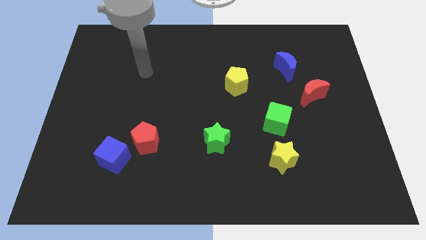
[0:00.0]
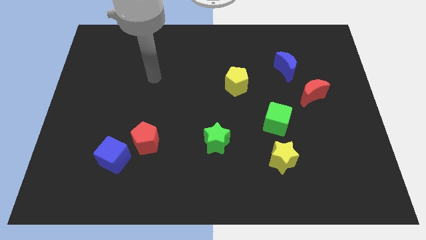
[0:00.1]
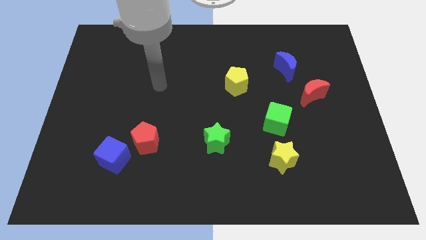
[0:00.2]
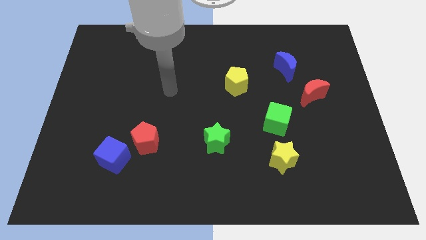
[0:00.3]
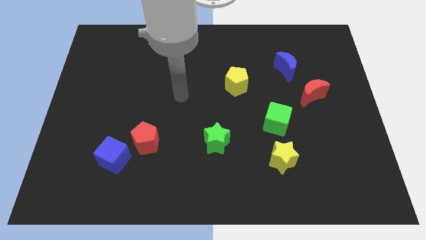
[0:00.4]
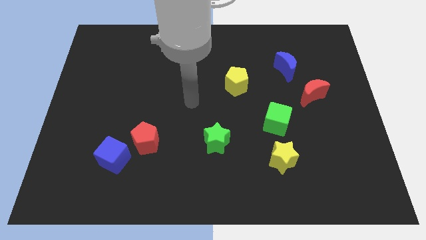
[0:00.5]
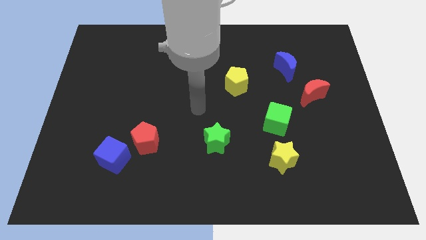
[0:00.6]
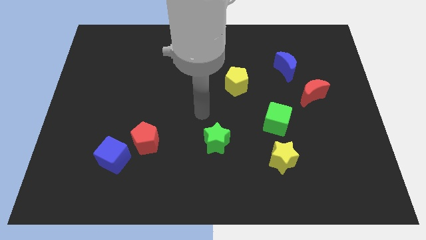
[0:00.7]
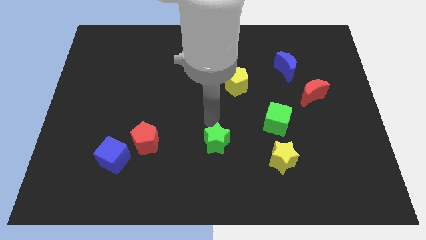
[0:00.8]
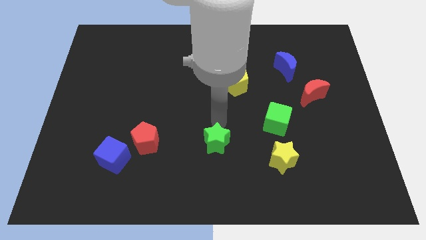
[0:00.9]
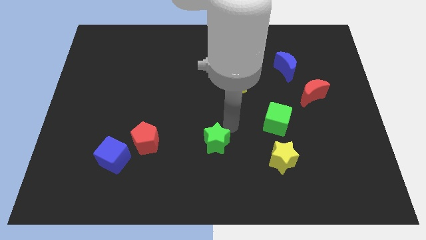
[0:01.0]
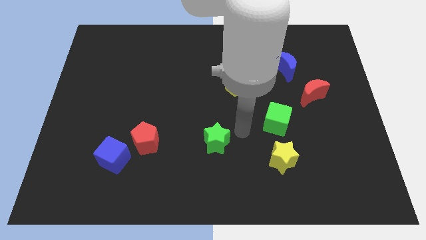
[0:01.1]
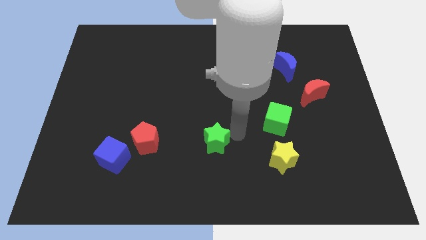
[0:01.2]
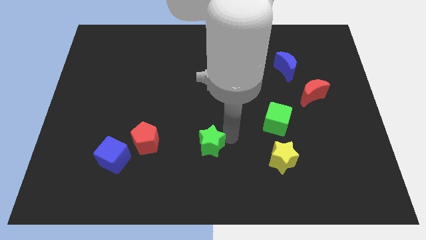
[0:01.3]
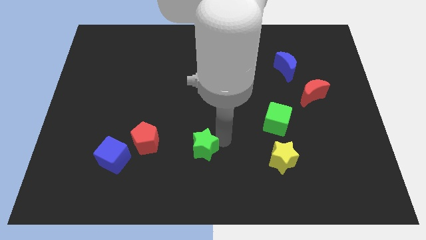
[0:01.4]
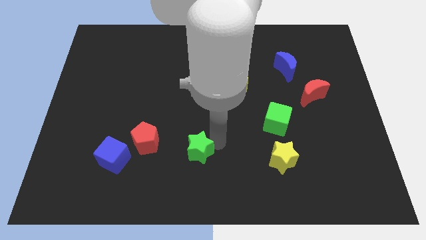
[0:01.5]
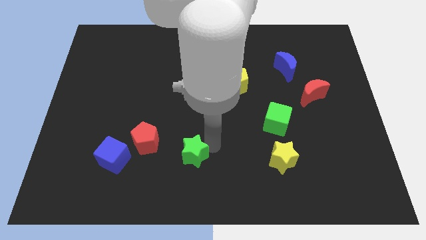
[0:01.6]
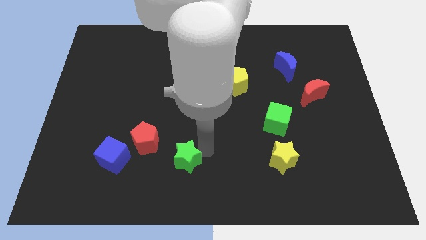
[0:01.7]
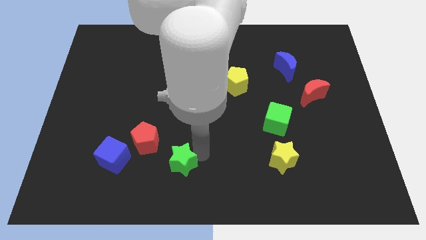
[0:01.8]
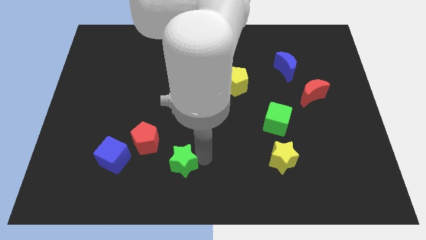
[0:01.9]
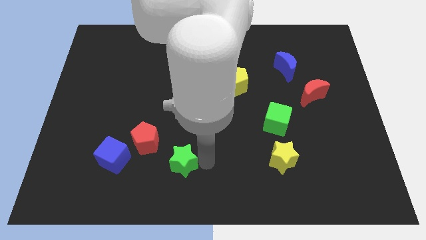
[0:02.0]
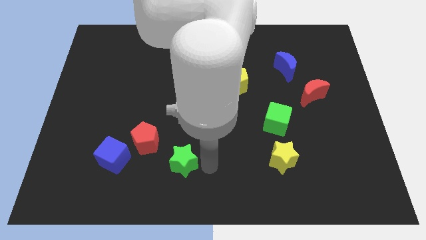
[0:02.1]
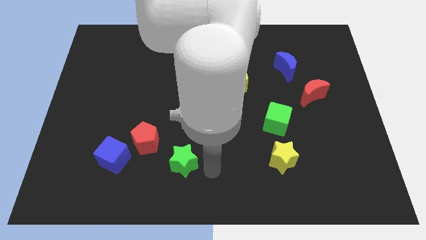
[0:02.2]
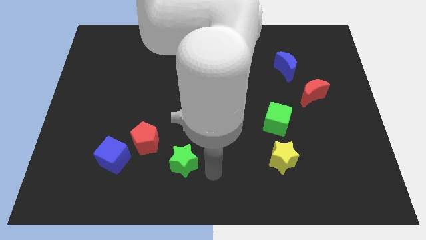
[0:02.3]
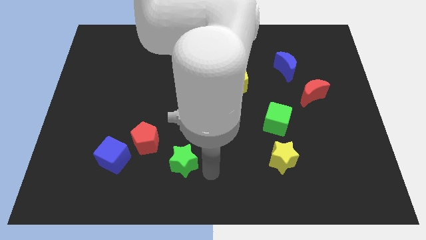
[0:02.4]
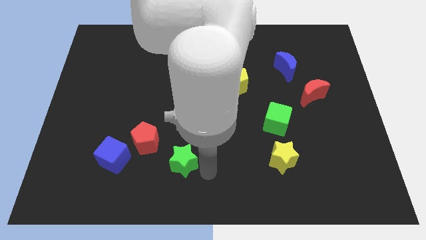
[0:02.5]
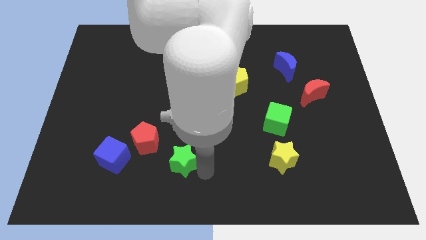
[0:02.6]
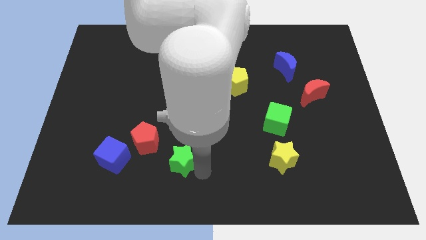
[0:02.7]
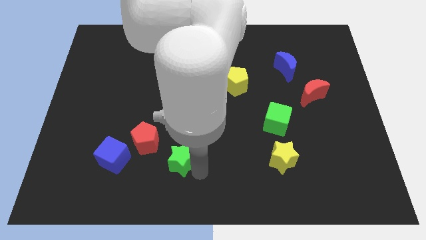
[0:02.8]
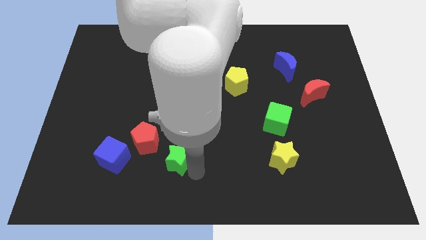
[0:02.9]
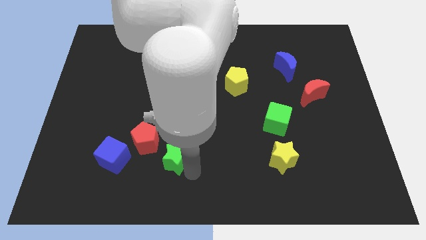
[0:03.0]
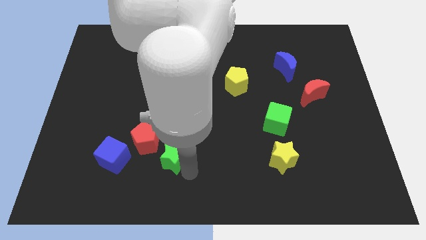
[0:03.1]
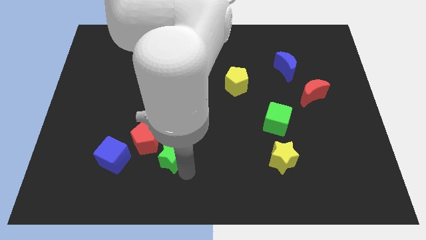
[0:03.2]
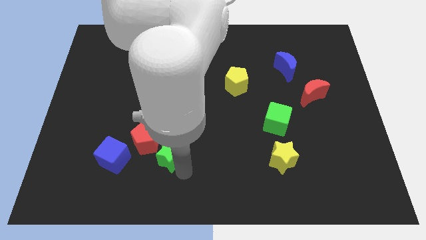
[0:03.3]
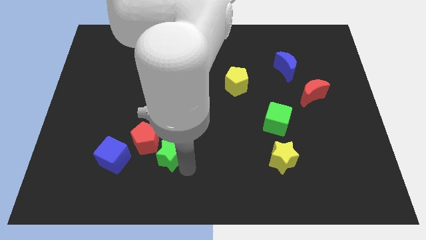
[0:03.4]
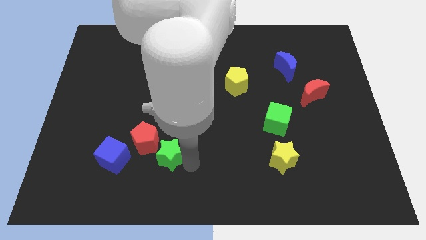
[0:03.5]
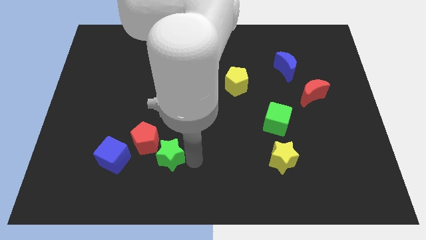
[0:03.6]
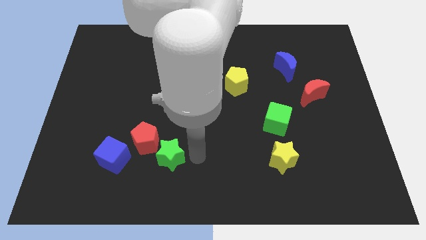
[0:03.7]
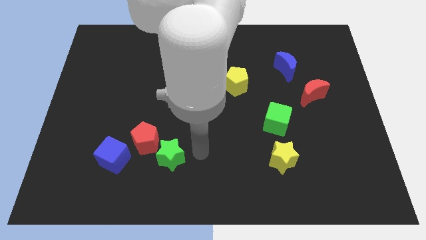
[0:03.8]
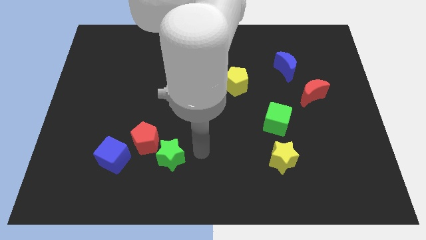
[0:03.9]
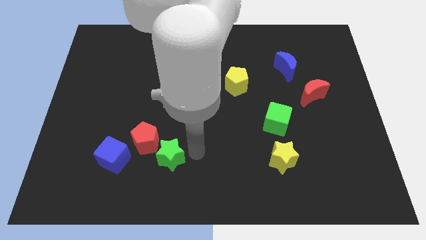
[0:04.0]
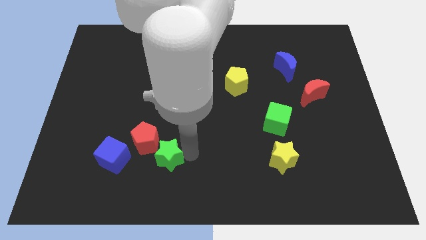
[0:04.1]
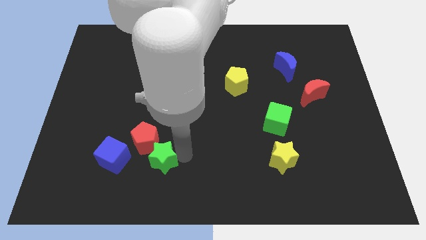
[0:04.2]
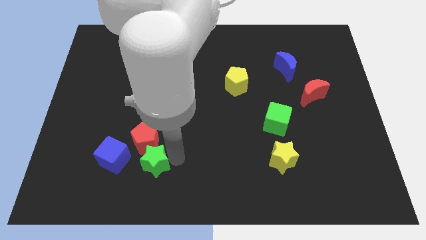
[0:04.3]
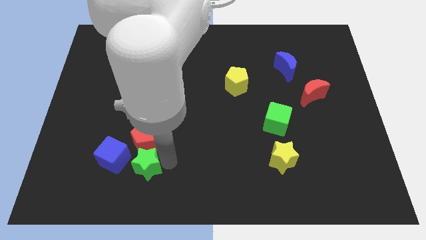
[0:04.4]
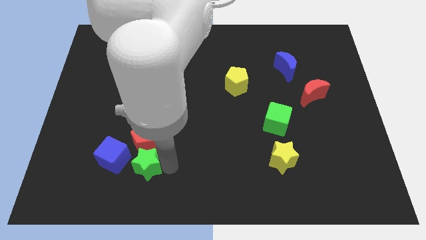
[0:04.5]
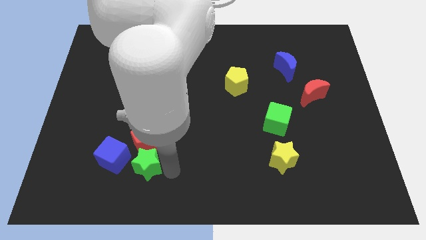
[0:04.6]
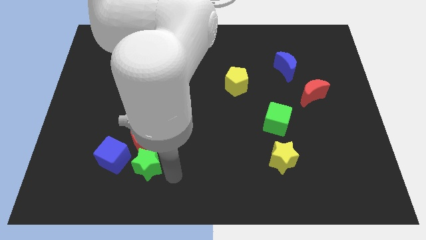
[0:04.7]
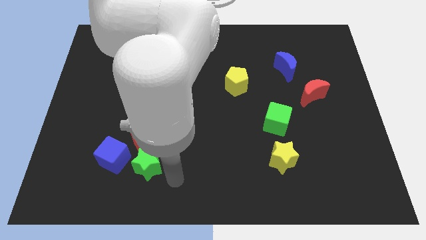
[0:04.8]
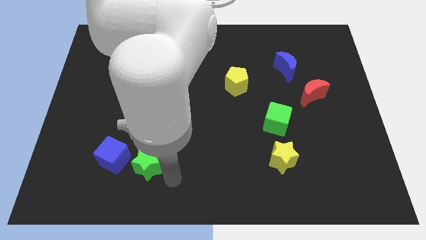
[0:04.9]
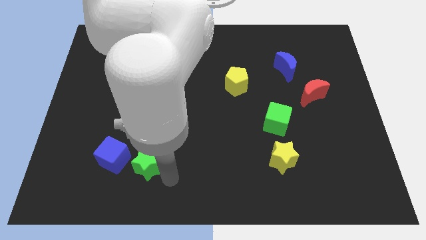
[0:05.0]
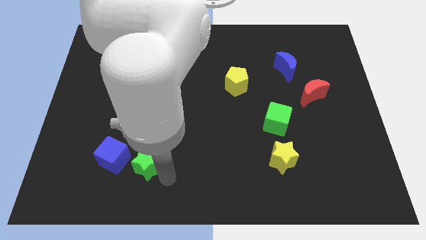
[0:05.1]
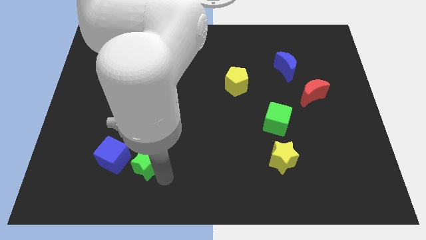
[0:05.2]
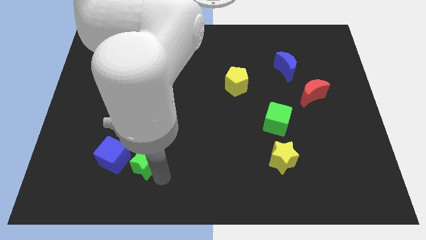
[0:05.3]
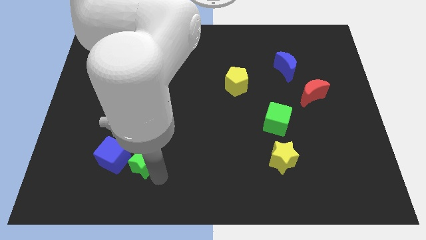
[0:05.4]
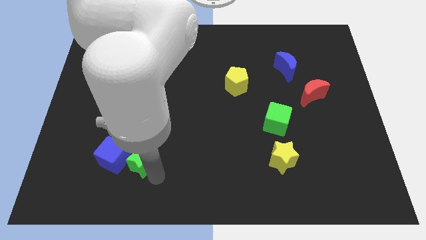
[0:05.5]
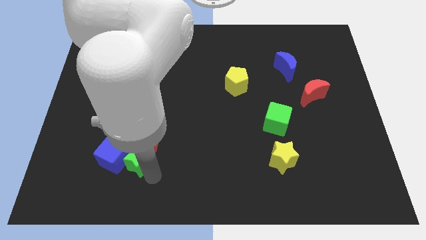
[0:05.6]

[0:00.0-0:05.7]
slide the green star towards the blue cube

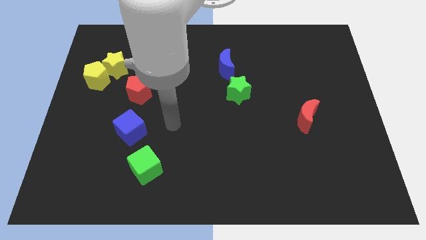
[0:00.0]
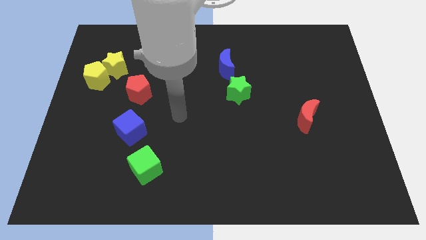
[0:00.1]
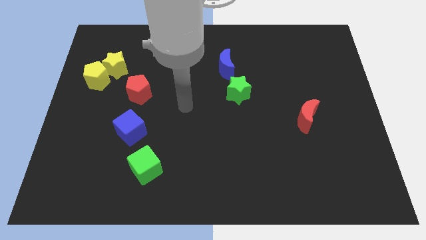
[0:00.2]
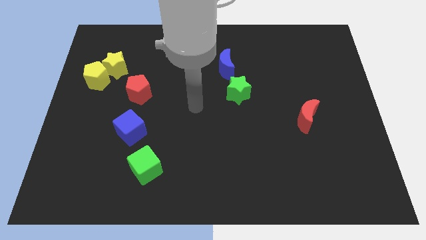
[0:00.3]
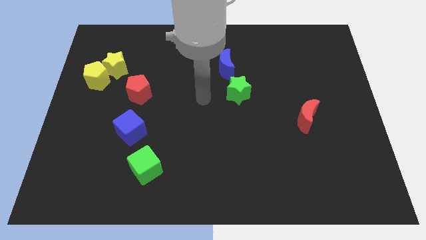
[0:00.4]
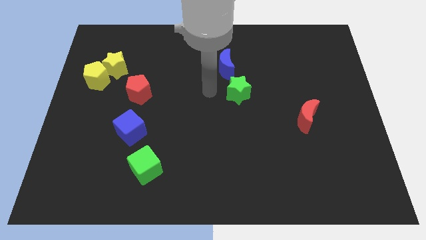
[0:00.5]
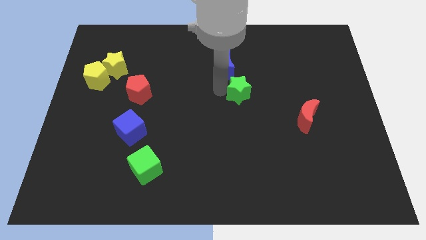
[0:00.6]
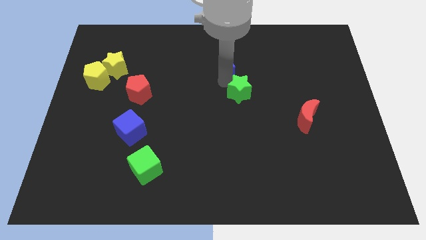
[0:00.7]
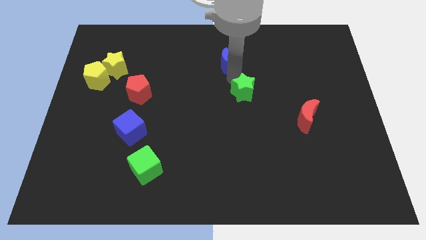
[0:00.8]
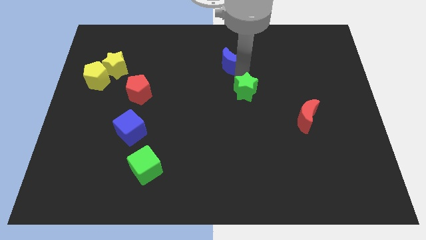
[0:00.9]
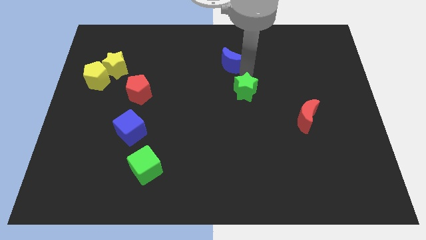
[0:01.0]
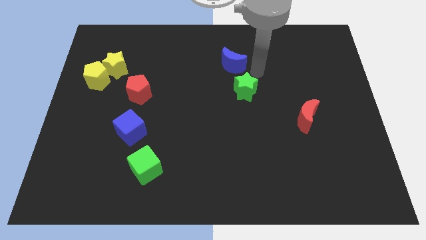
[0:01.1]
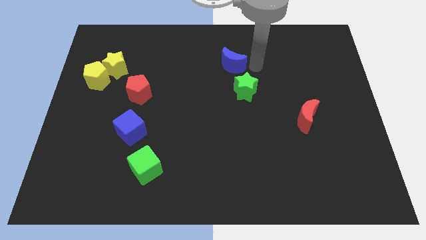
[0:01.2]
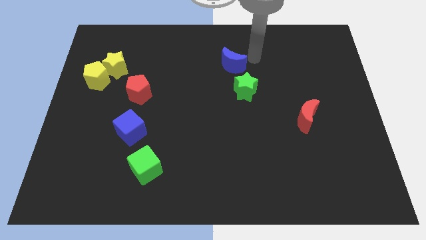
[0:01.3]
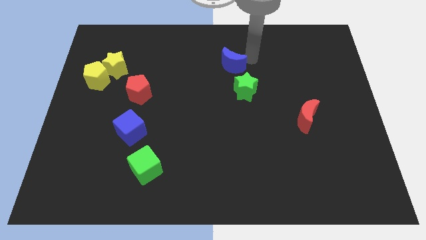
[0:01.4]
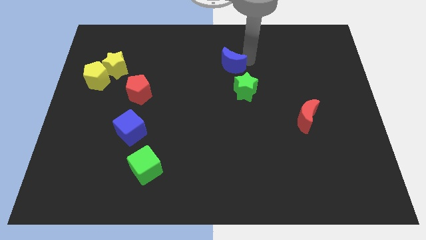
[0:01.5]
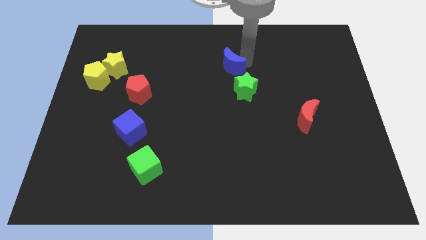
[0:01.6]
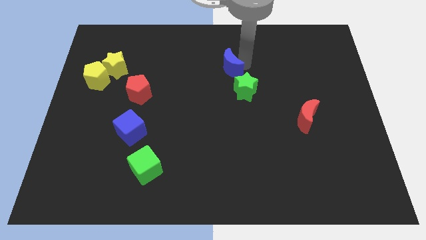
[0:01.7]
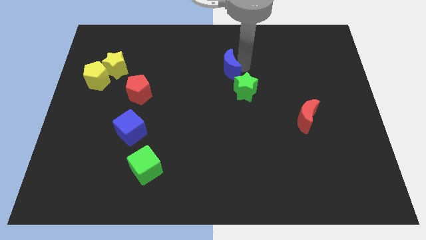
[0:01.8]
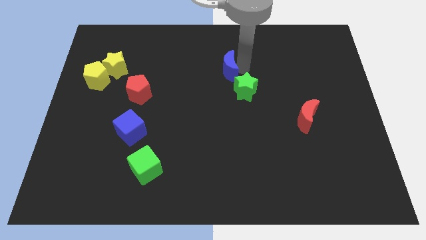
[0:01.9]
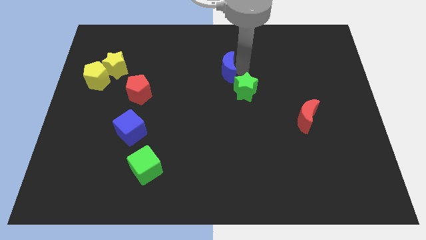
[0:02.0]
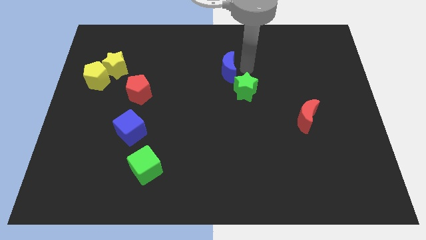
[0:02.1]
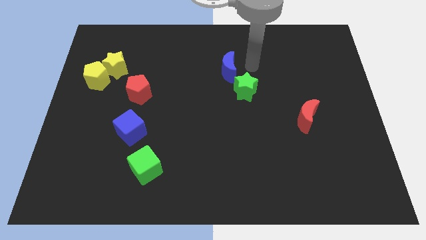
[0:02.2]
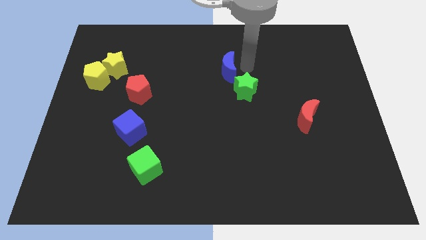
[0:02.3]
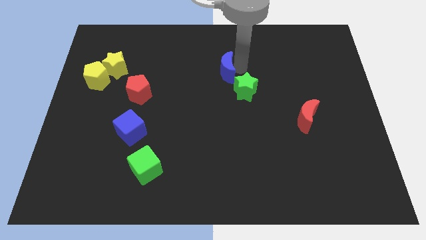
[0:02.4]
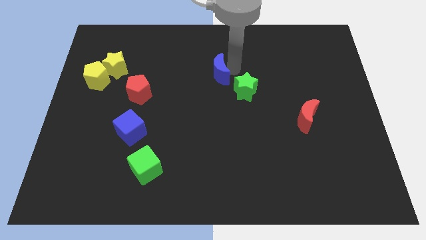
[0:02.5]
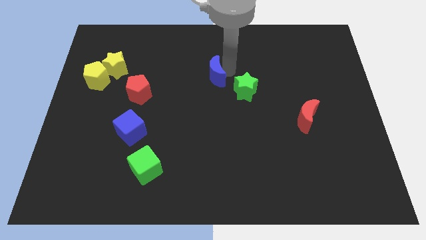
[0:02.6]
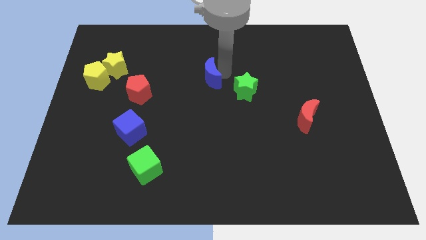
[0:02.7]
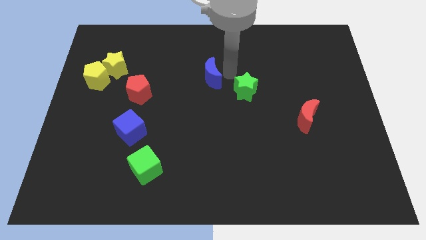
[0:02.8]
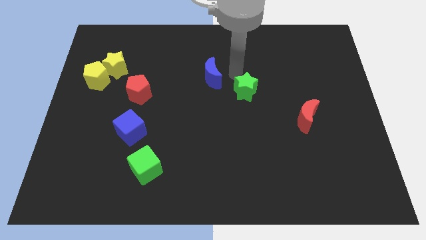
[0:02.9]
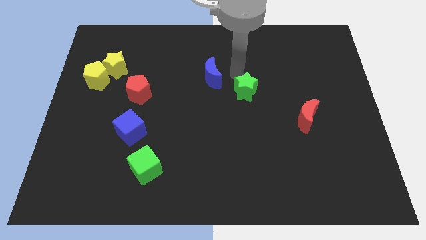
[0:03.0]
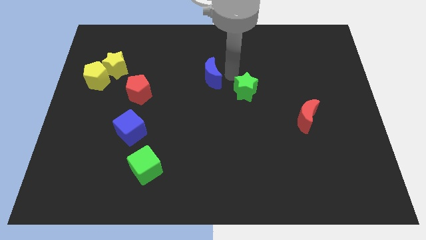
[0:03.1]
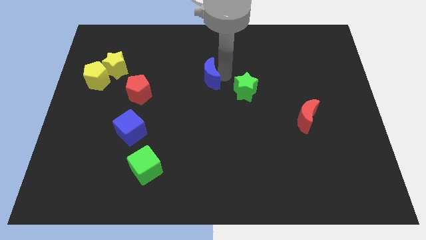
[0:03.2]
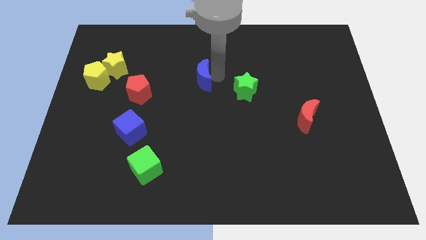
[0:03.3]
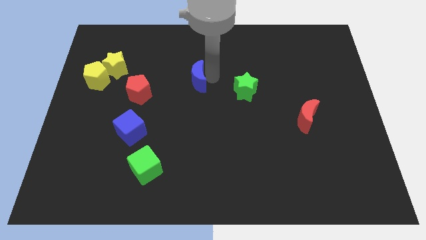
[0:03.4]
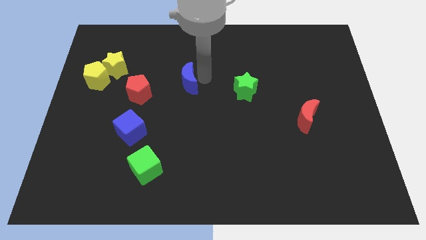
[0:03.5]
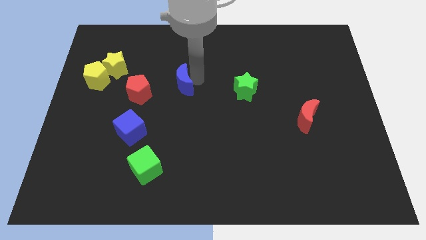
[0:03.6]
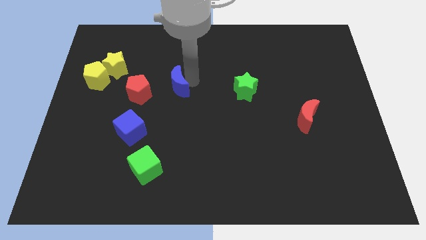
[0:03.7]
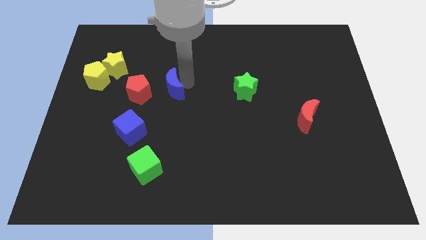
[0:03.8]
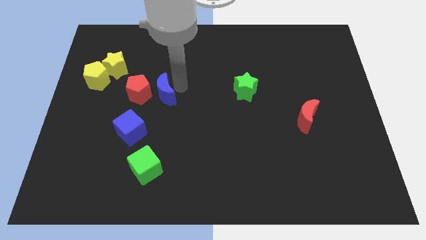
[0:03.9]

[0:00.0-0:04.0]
push the blue moon towards the red pentagon
